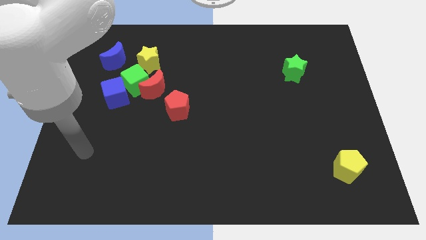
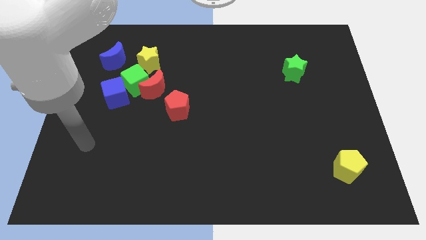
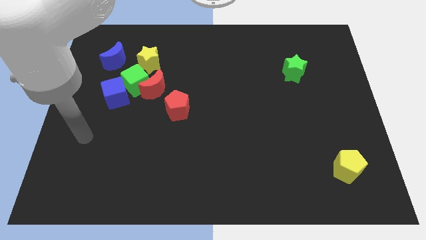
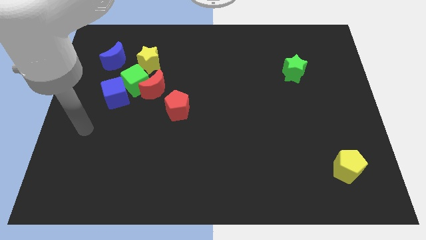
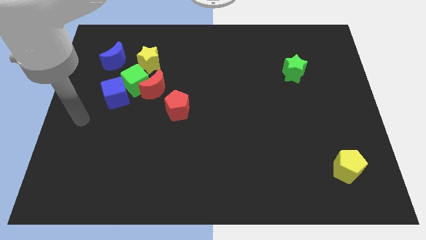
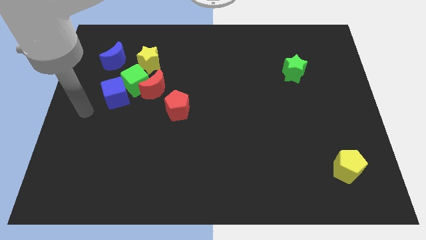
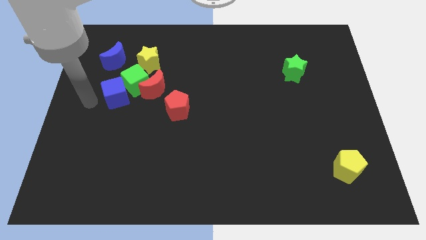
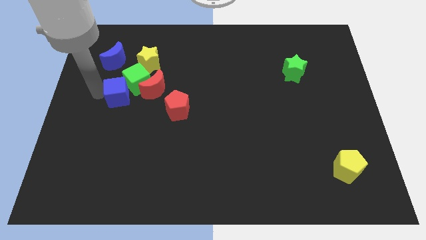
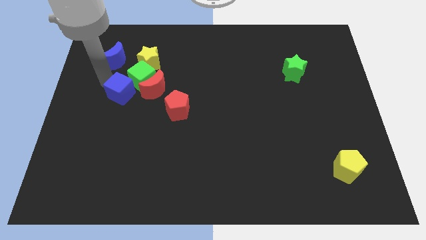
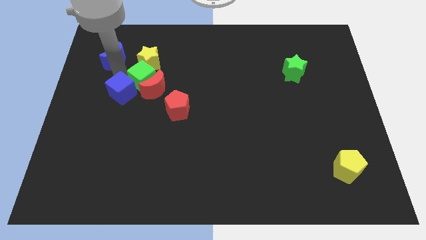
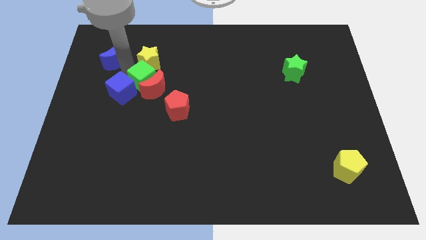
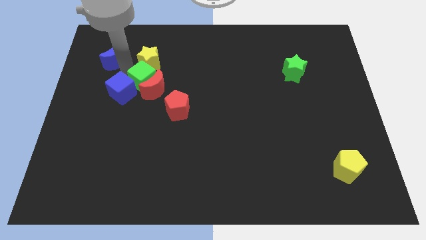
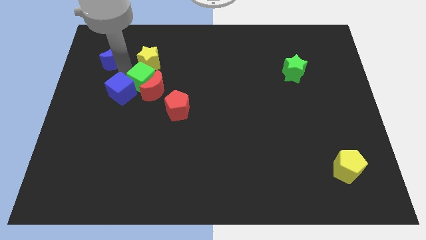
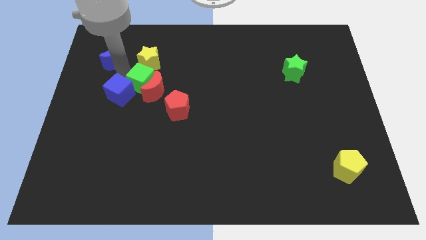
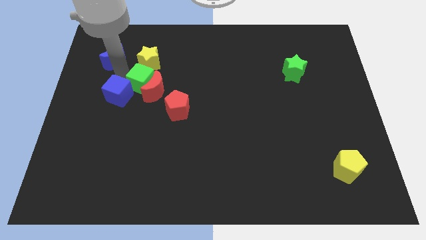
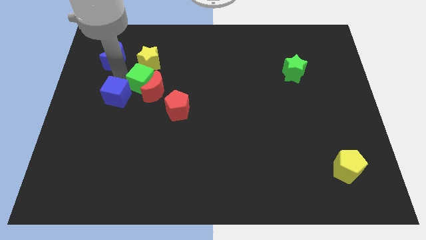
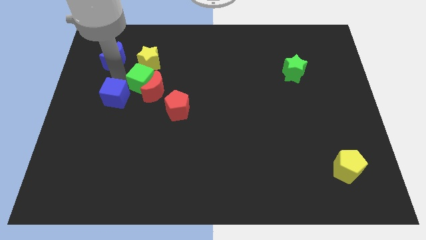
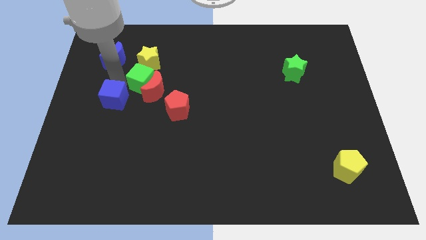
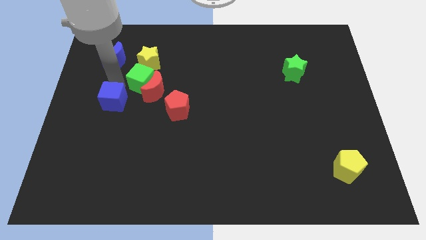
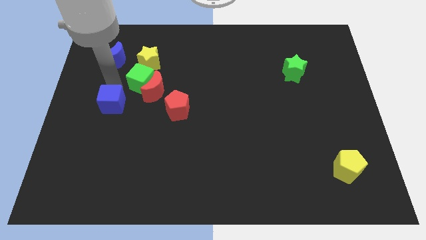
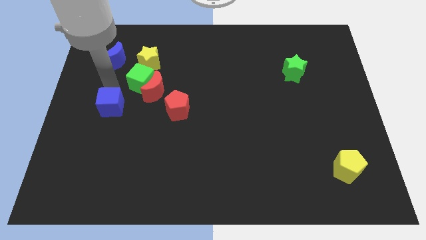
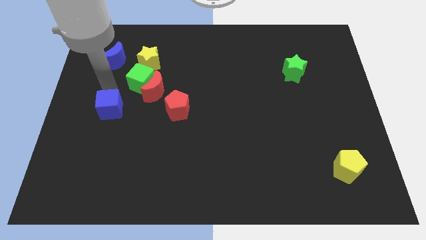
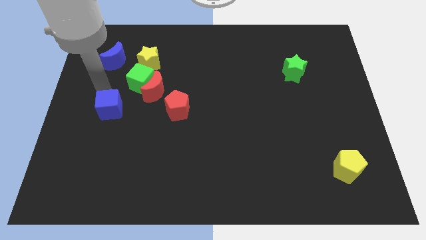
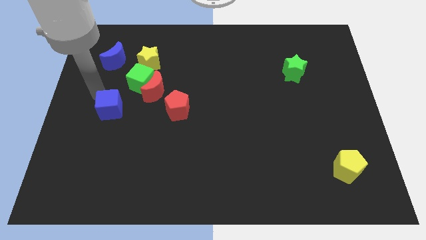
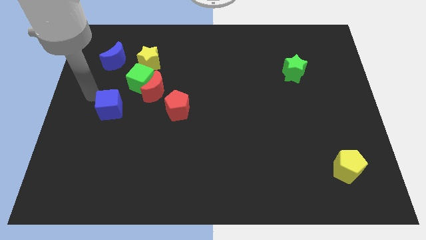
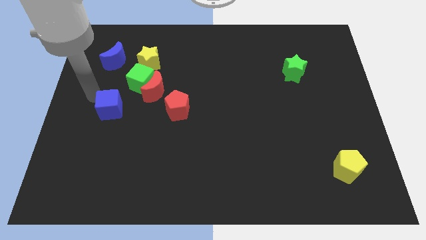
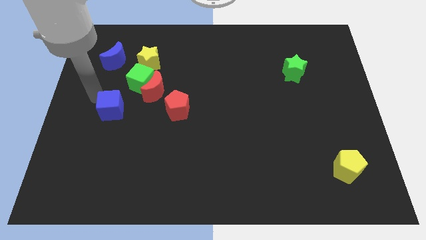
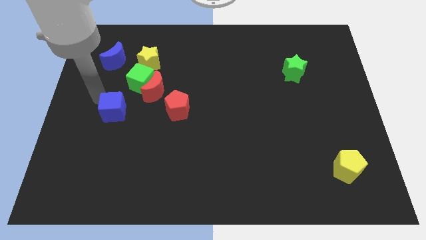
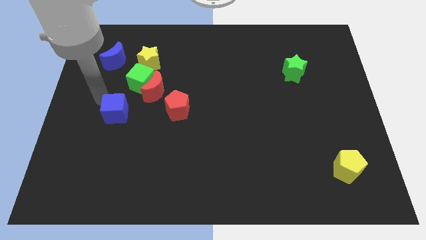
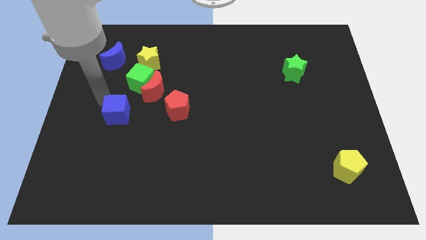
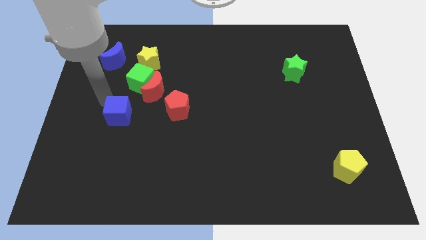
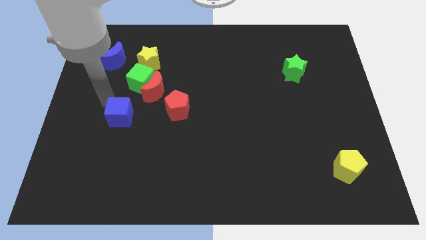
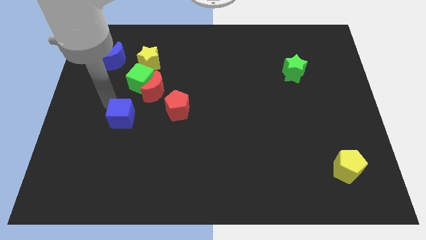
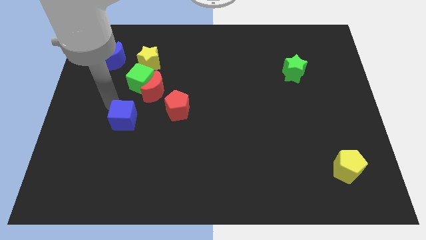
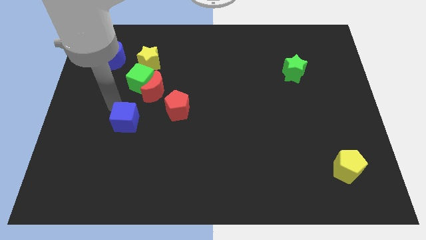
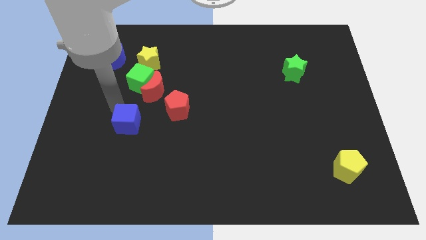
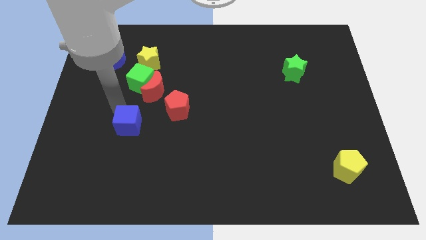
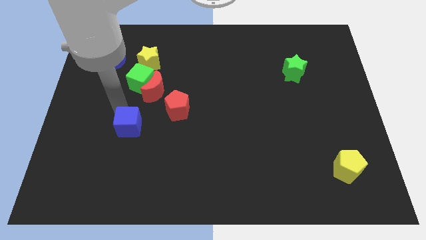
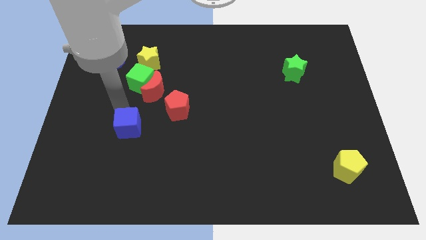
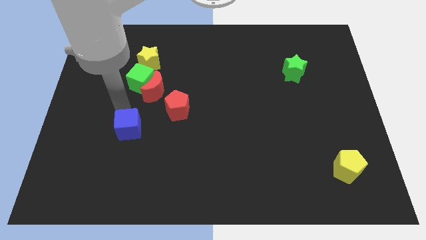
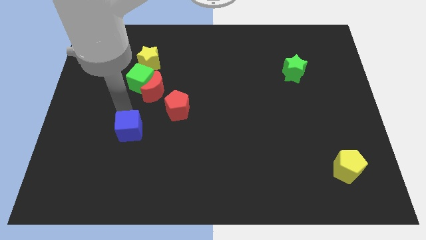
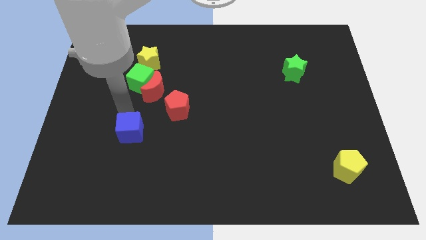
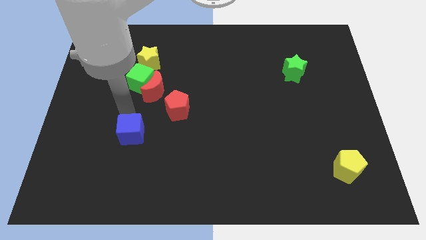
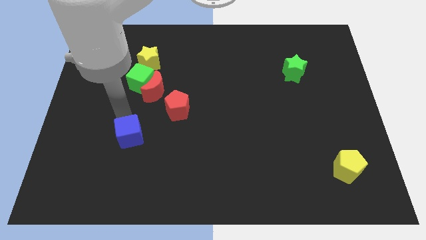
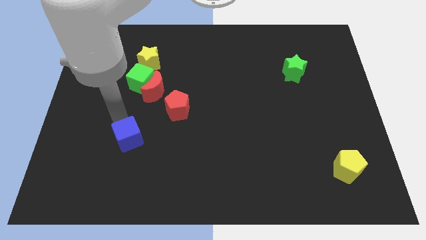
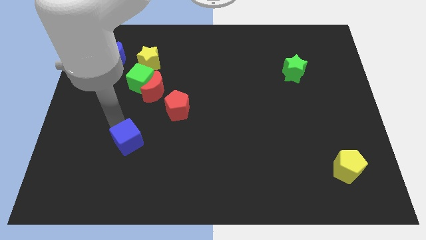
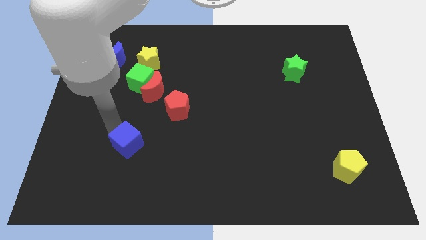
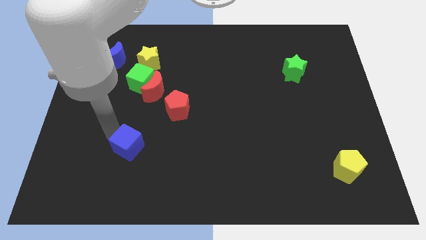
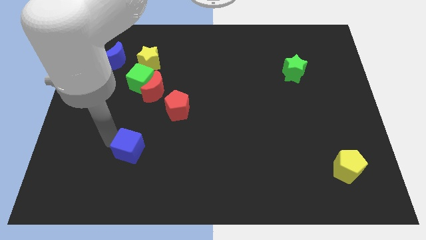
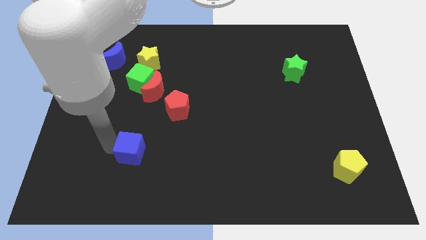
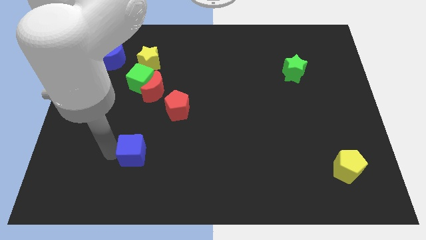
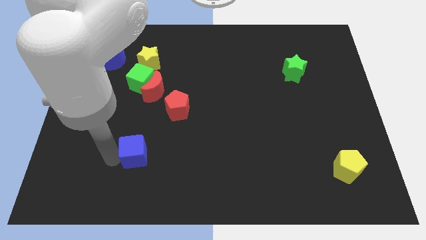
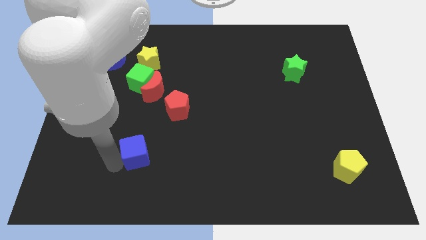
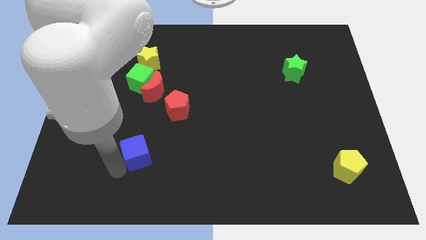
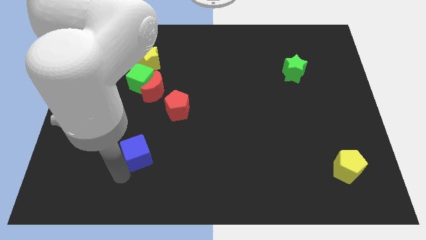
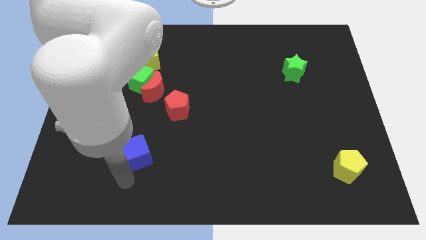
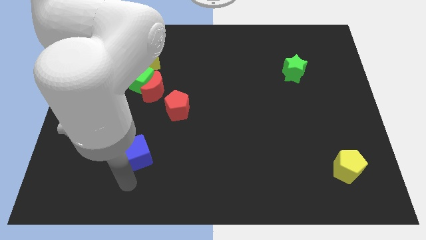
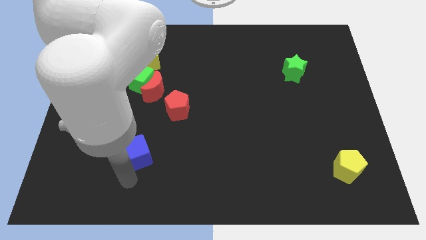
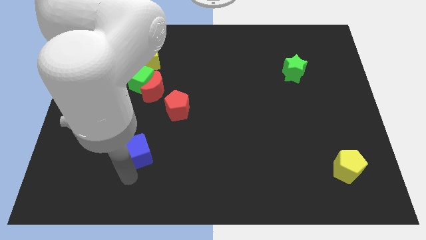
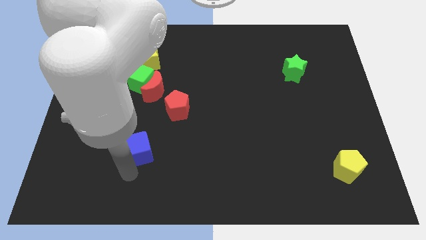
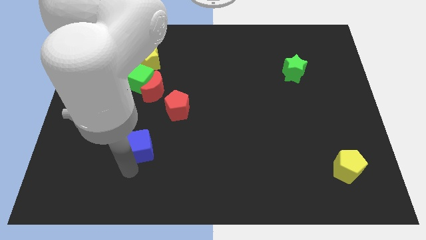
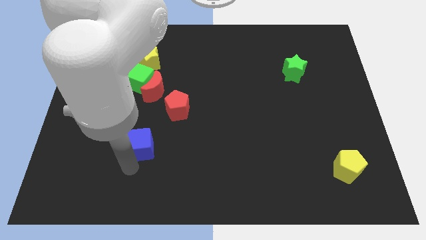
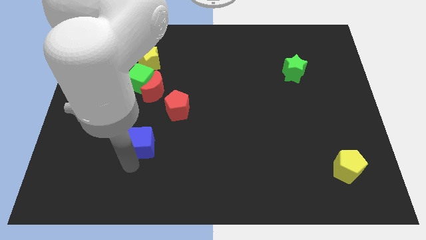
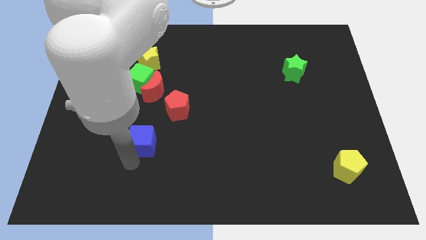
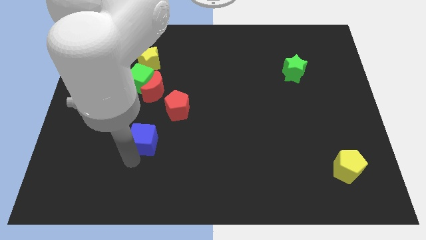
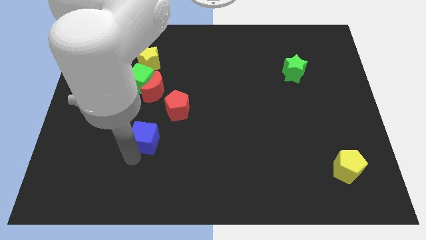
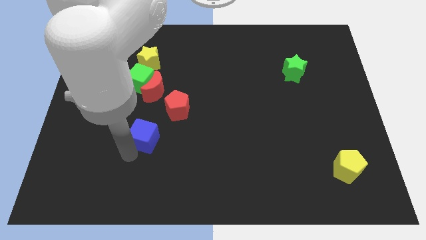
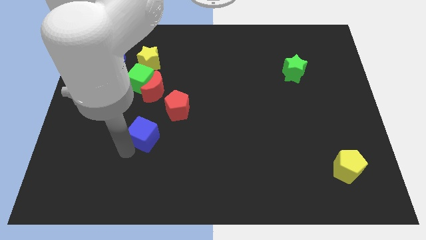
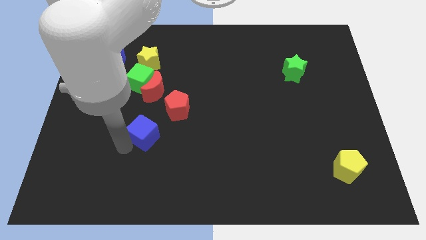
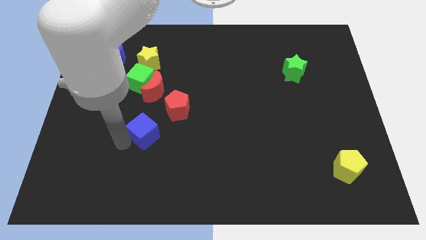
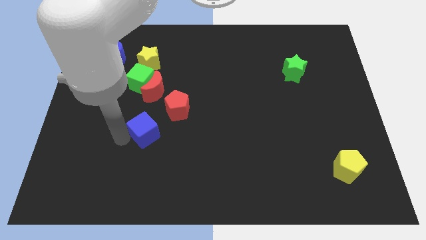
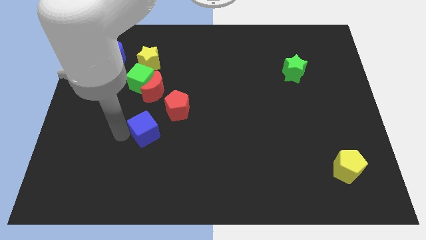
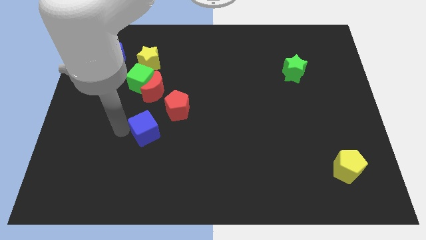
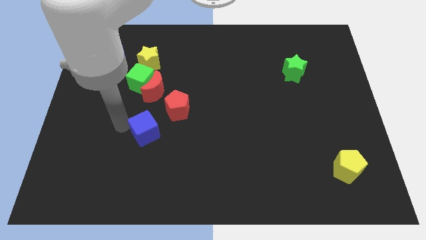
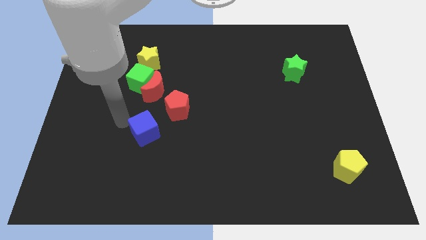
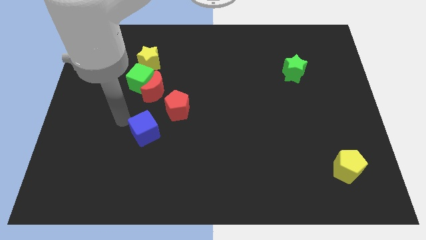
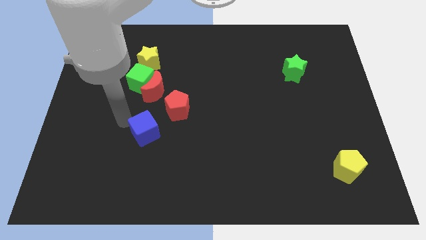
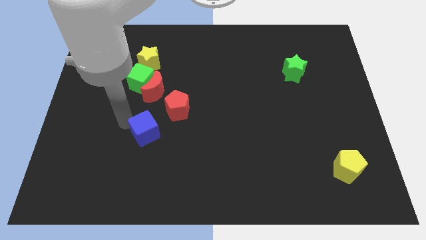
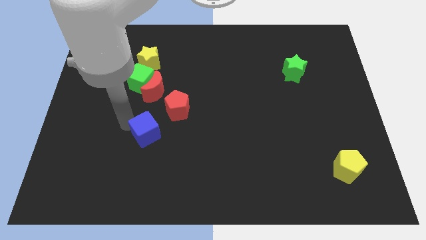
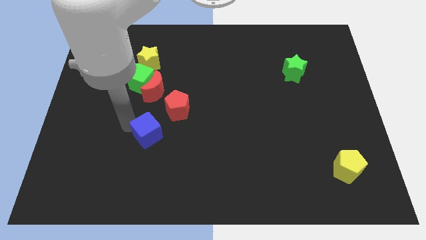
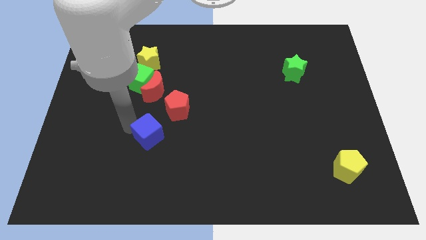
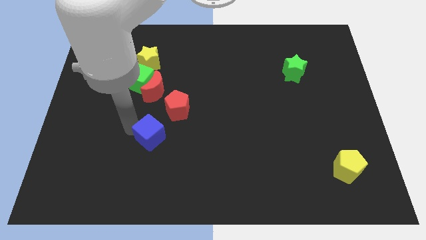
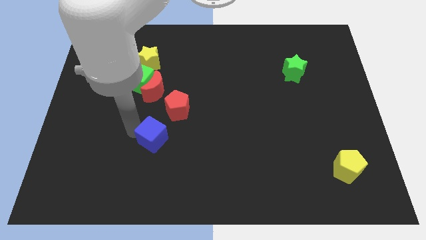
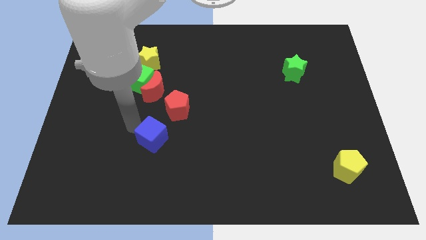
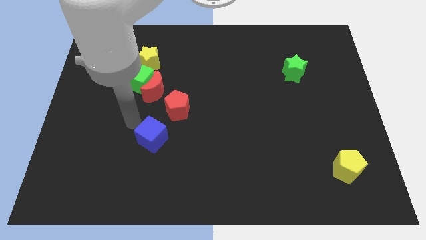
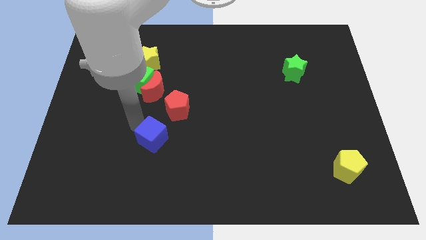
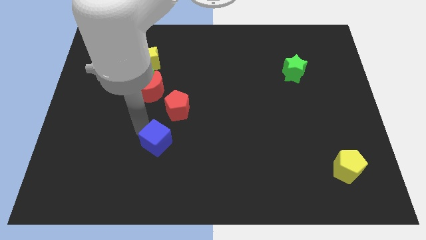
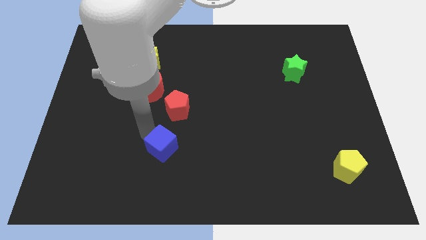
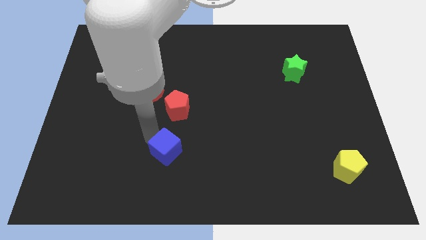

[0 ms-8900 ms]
move the blue cube down and right
